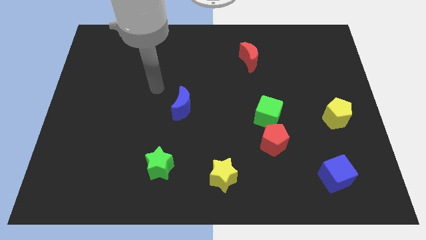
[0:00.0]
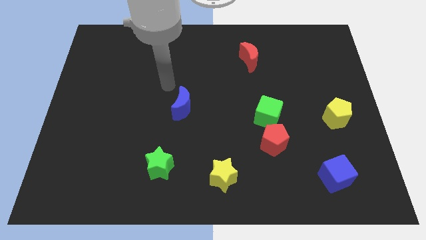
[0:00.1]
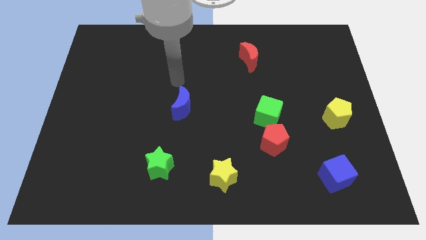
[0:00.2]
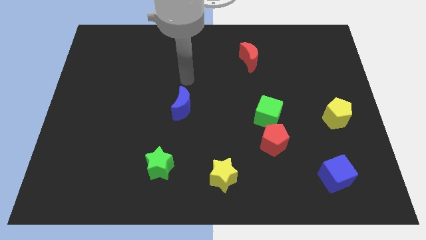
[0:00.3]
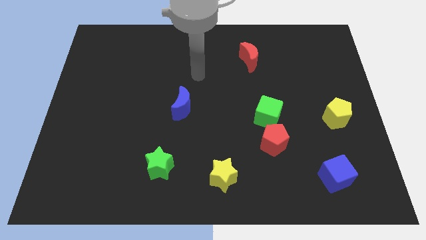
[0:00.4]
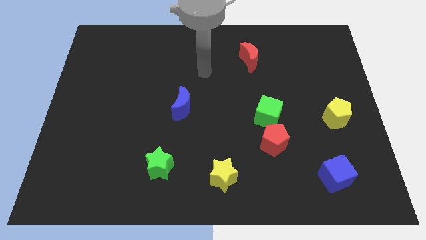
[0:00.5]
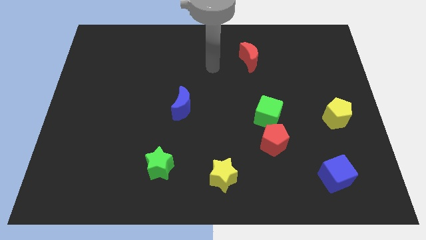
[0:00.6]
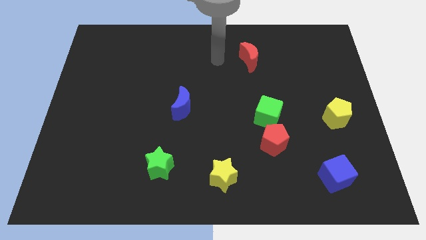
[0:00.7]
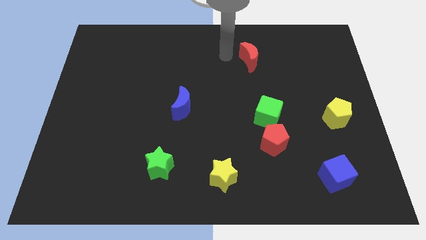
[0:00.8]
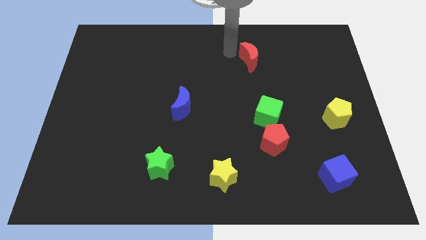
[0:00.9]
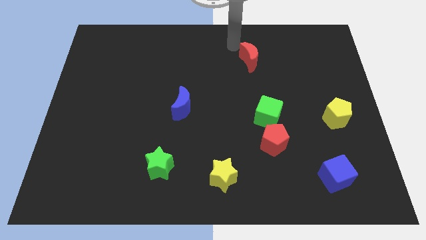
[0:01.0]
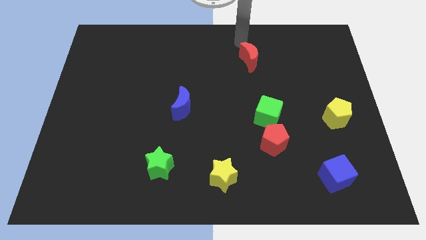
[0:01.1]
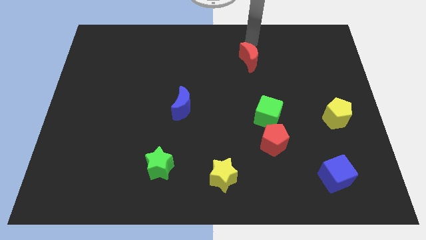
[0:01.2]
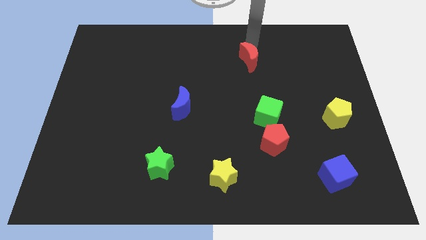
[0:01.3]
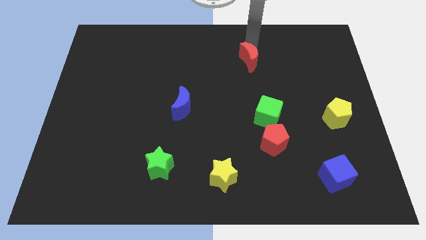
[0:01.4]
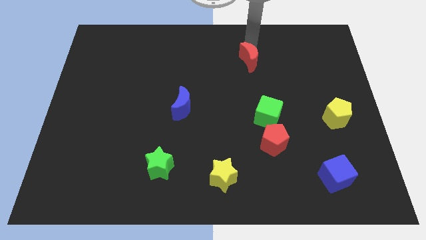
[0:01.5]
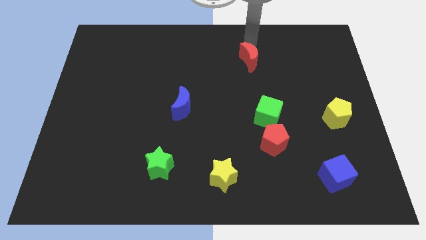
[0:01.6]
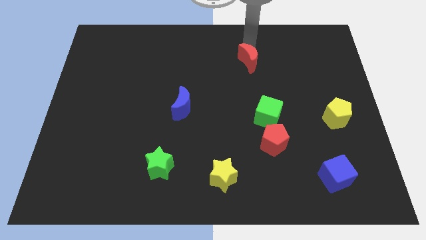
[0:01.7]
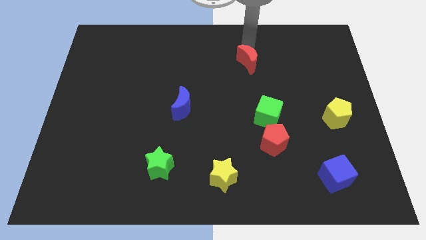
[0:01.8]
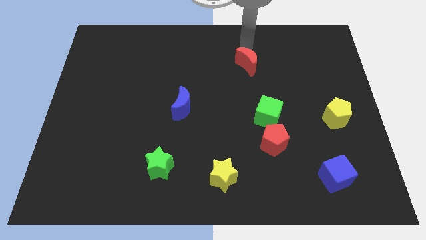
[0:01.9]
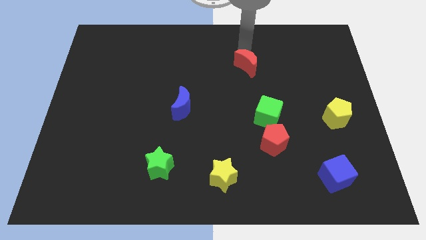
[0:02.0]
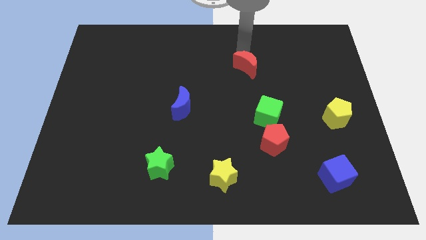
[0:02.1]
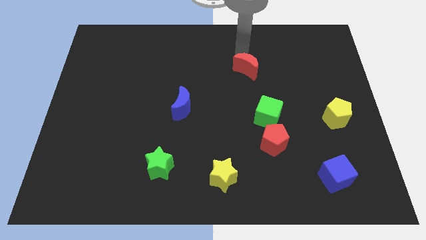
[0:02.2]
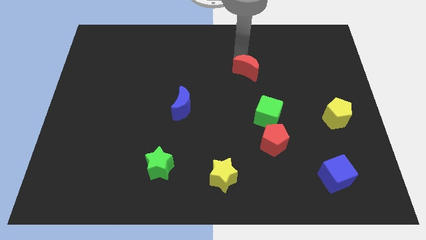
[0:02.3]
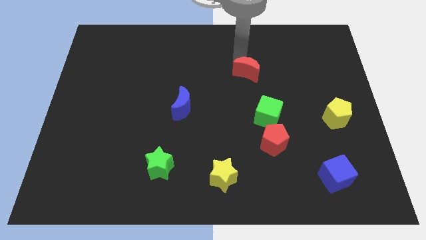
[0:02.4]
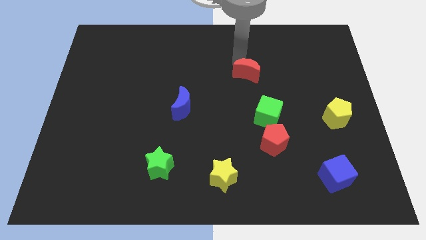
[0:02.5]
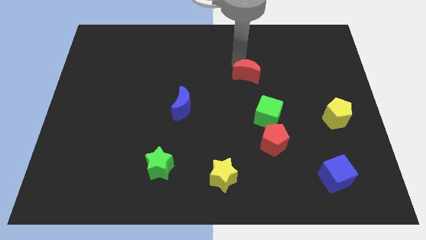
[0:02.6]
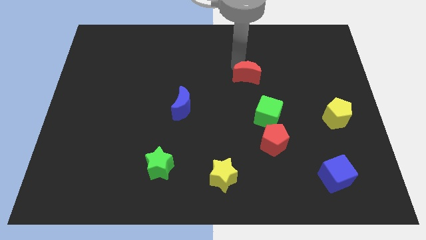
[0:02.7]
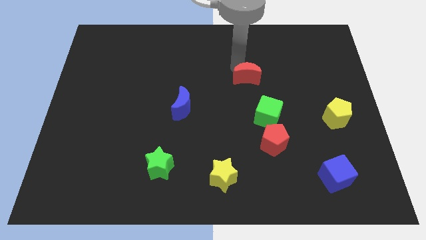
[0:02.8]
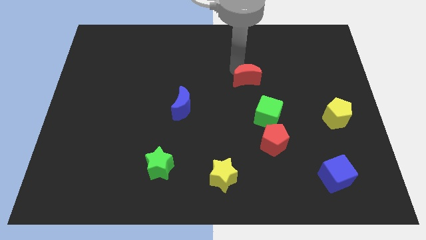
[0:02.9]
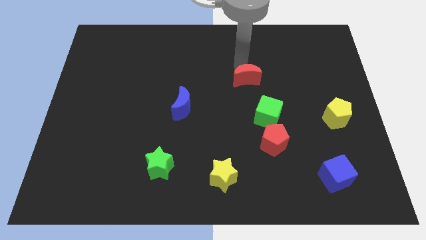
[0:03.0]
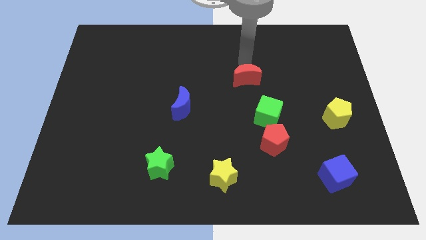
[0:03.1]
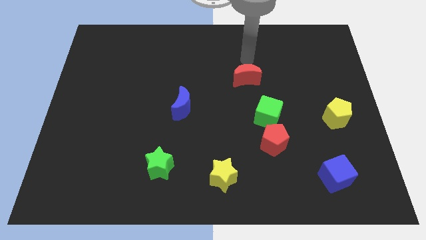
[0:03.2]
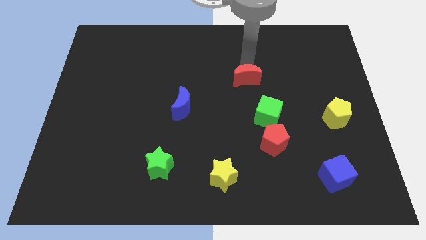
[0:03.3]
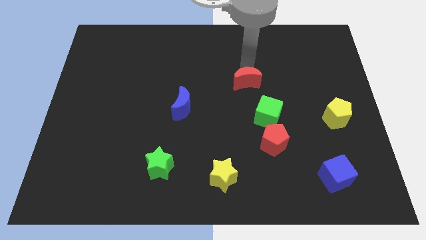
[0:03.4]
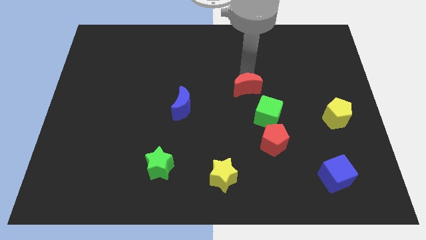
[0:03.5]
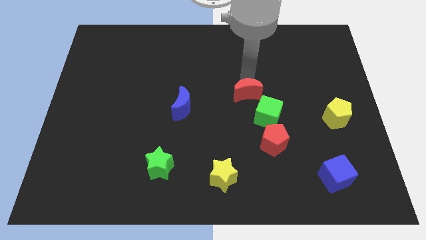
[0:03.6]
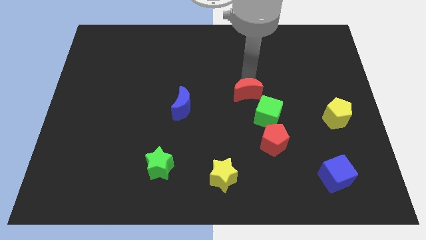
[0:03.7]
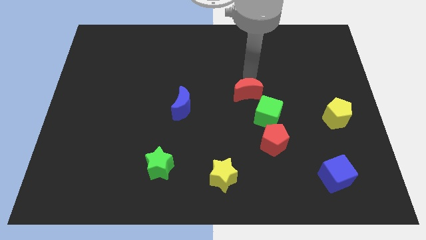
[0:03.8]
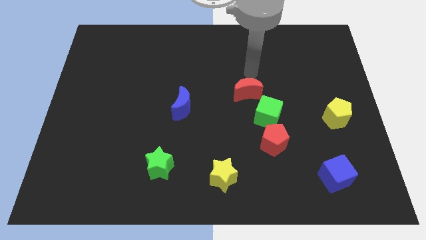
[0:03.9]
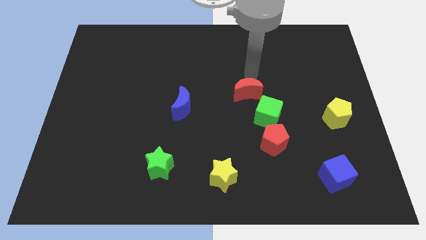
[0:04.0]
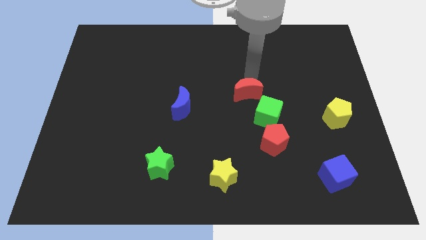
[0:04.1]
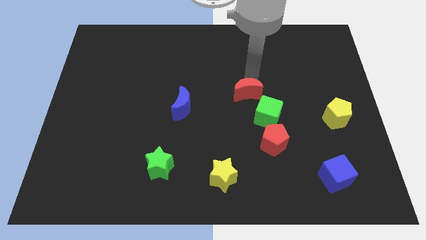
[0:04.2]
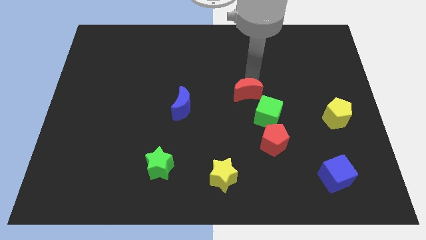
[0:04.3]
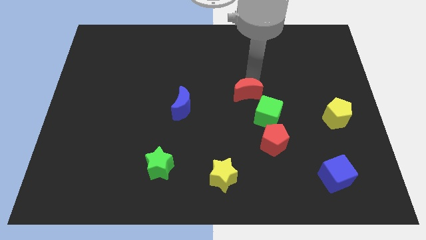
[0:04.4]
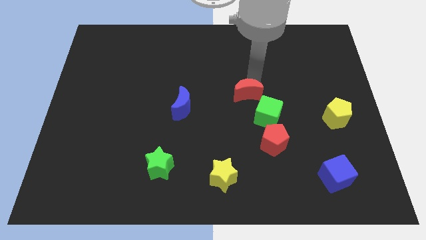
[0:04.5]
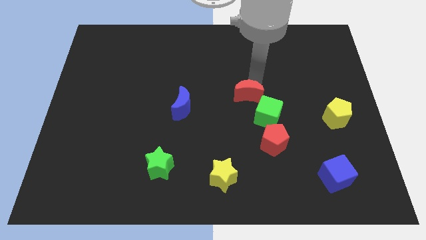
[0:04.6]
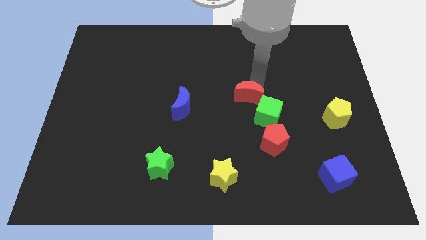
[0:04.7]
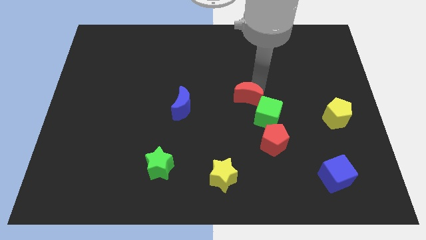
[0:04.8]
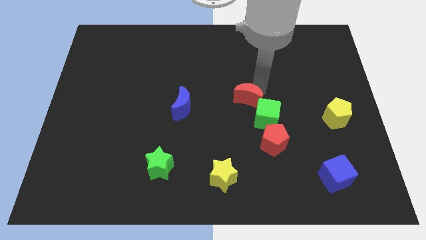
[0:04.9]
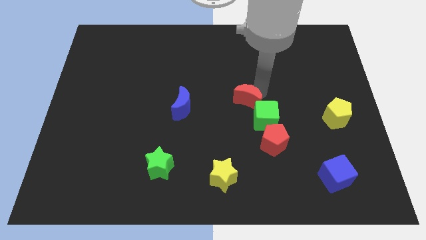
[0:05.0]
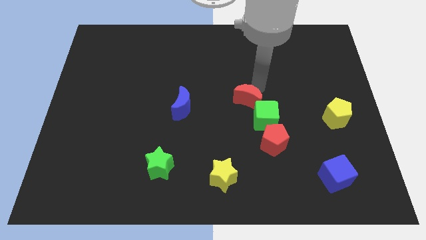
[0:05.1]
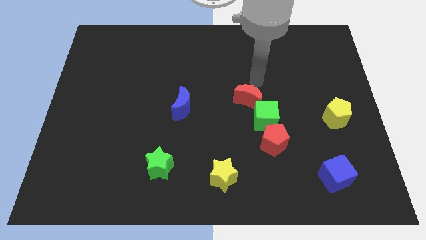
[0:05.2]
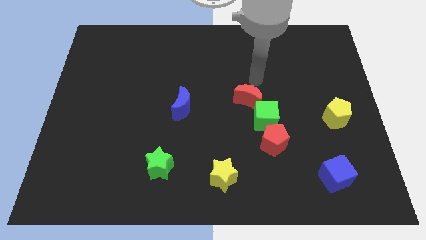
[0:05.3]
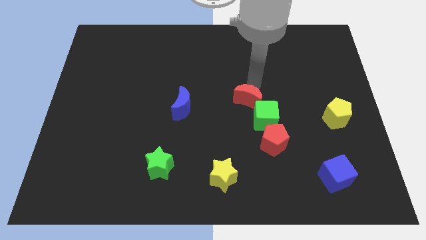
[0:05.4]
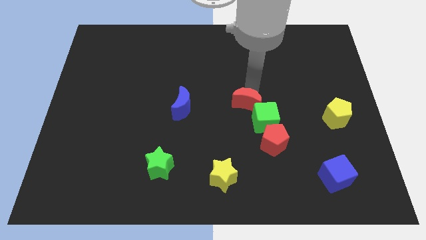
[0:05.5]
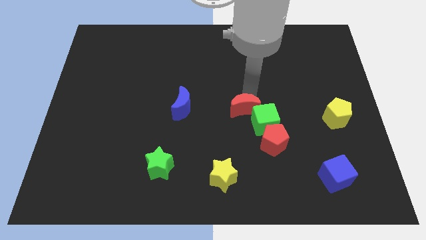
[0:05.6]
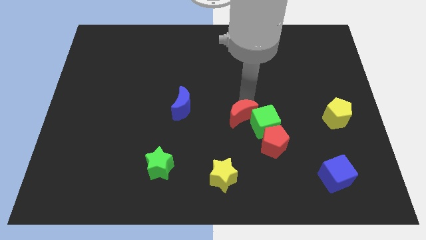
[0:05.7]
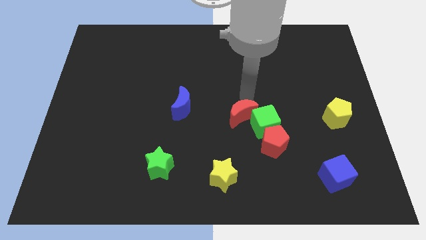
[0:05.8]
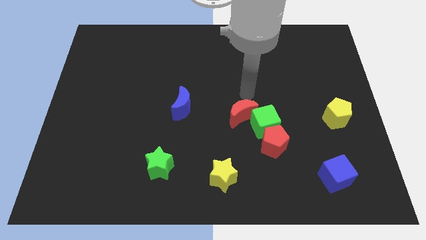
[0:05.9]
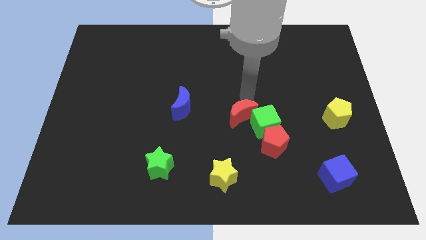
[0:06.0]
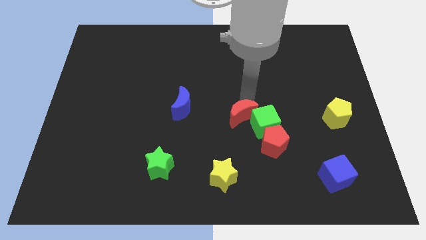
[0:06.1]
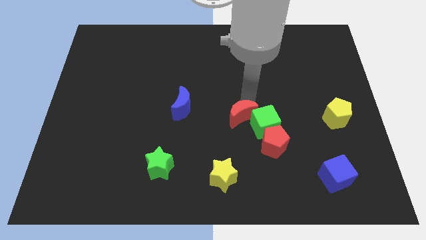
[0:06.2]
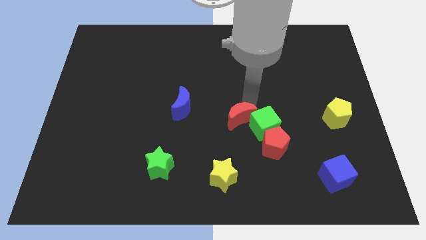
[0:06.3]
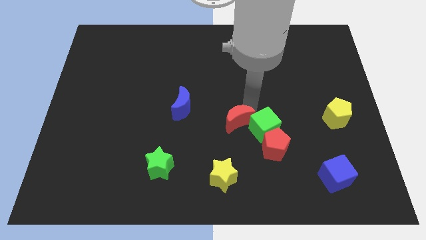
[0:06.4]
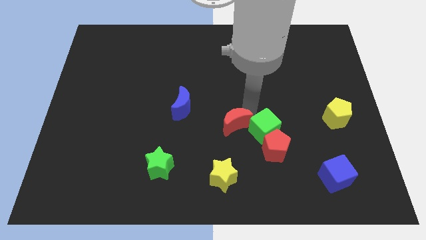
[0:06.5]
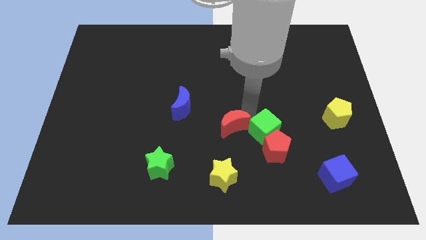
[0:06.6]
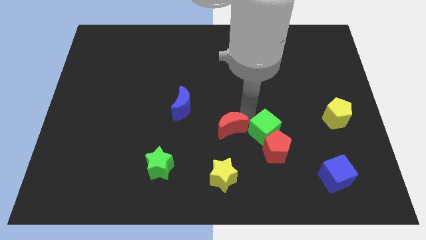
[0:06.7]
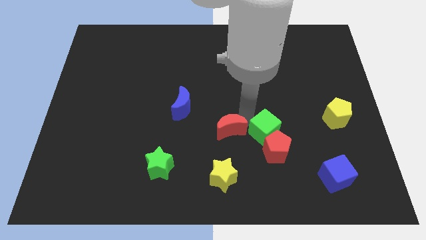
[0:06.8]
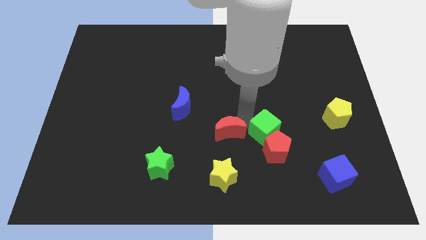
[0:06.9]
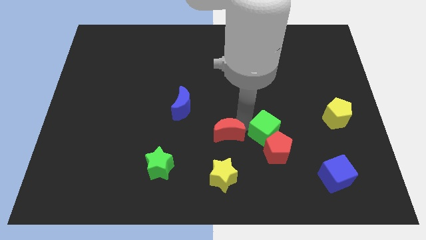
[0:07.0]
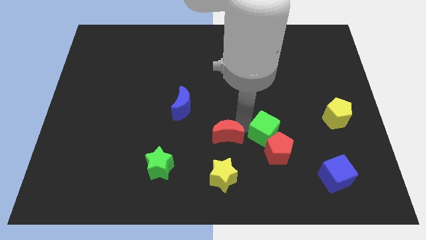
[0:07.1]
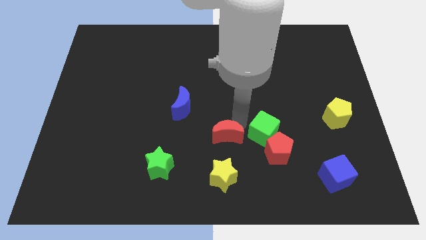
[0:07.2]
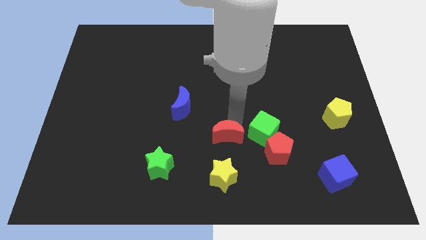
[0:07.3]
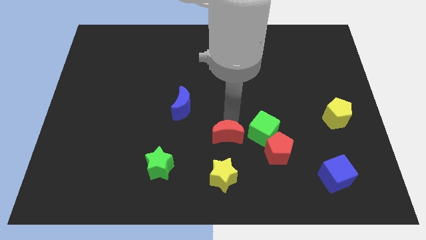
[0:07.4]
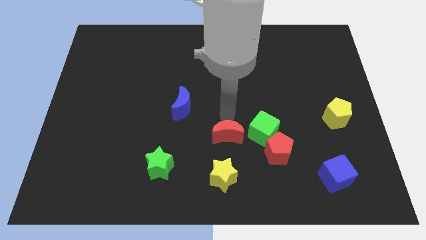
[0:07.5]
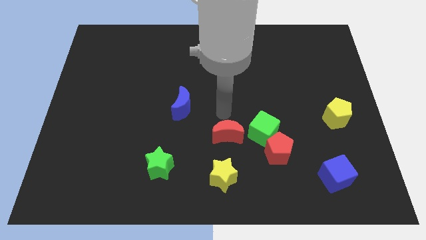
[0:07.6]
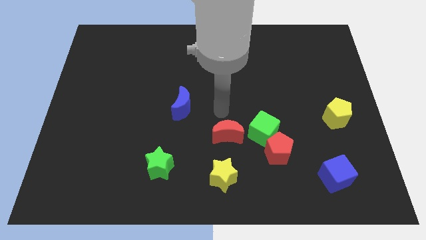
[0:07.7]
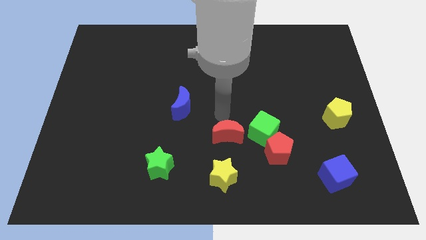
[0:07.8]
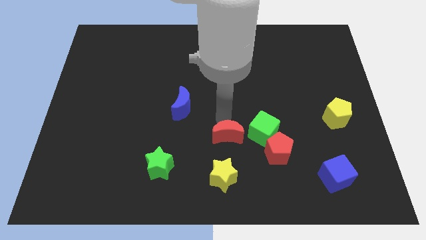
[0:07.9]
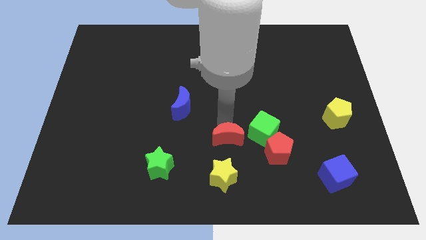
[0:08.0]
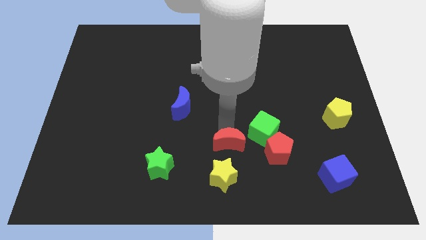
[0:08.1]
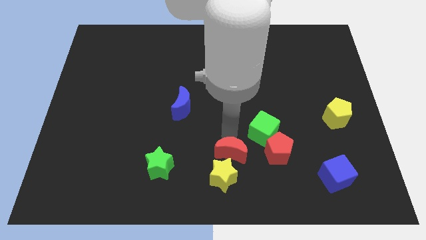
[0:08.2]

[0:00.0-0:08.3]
push the red moon close to the yellow star
